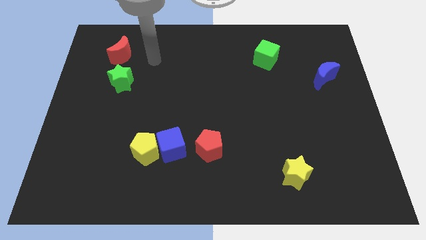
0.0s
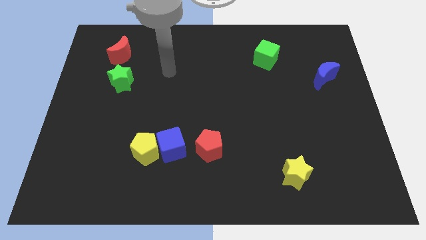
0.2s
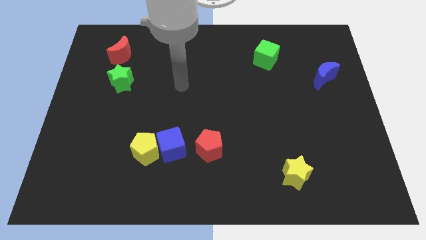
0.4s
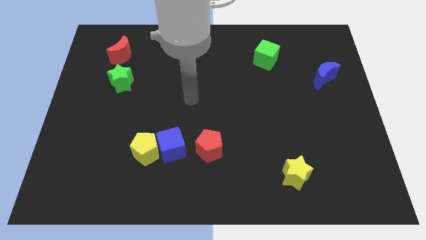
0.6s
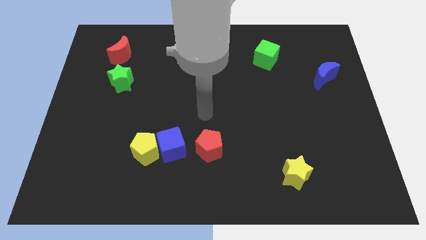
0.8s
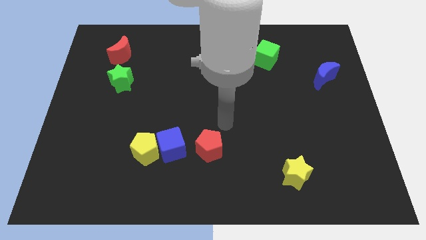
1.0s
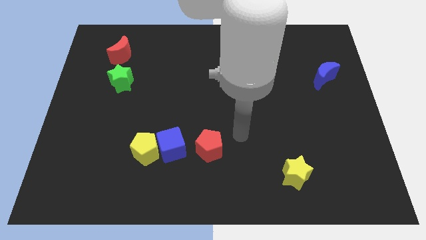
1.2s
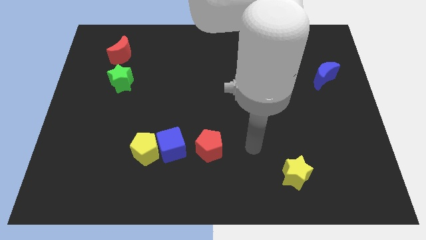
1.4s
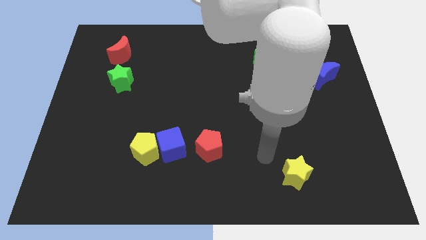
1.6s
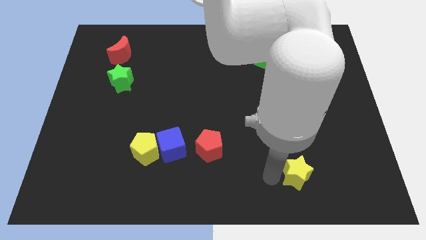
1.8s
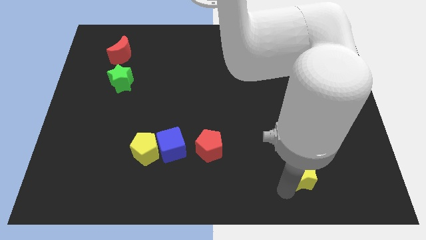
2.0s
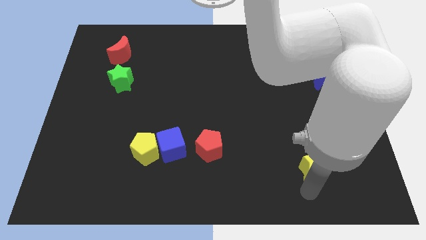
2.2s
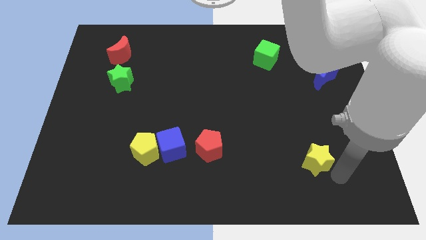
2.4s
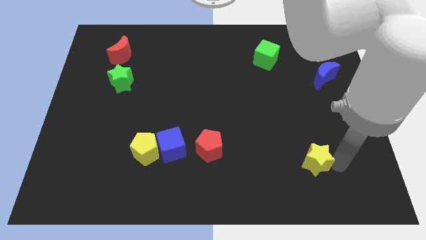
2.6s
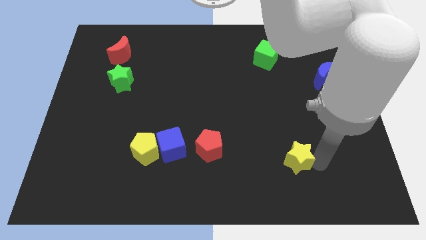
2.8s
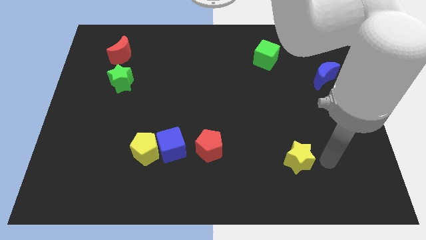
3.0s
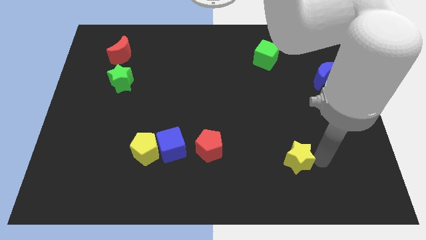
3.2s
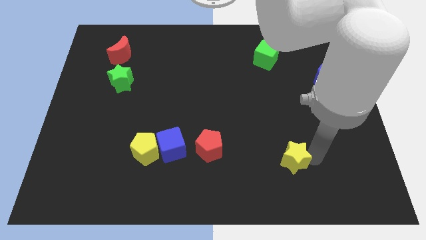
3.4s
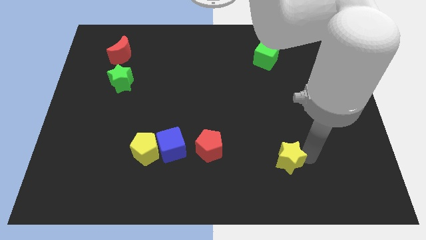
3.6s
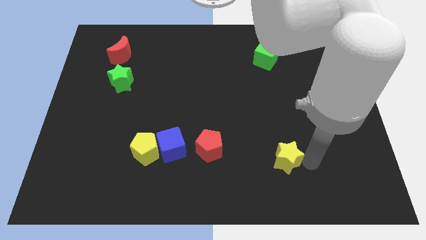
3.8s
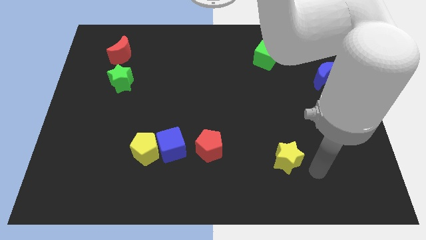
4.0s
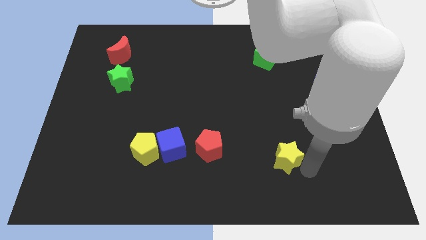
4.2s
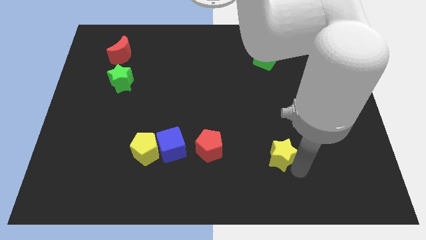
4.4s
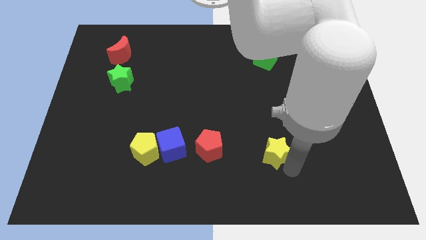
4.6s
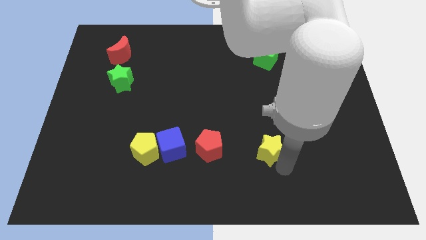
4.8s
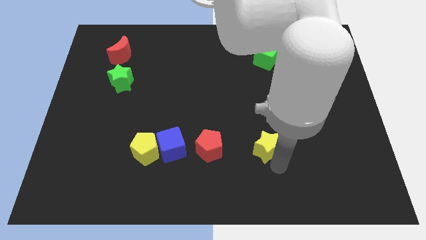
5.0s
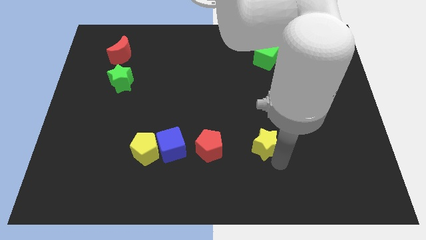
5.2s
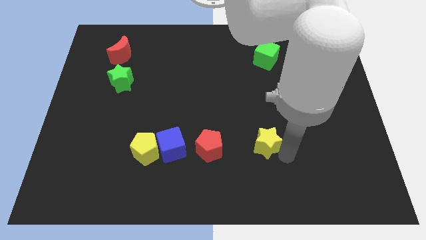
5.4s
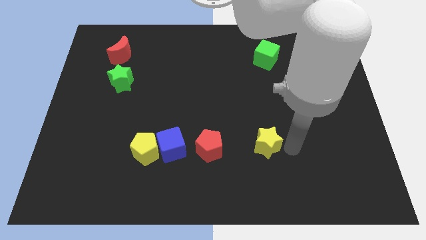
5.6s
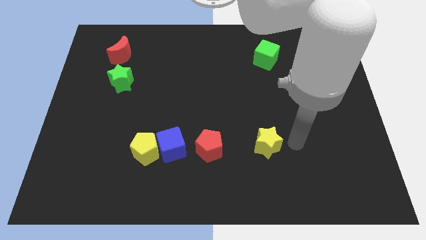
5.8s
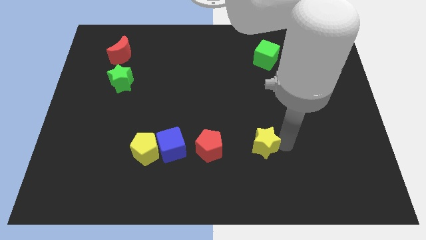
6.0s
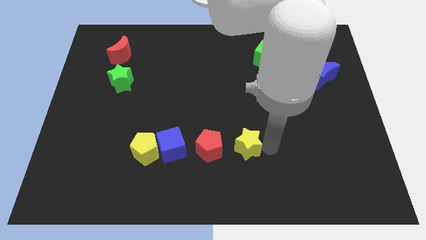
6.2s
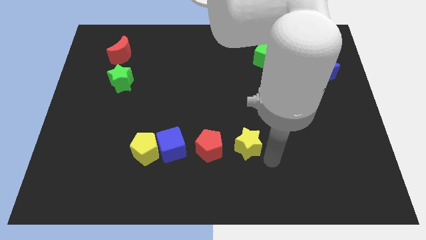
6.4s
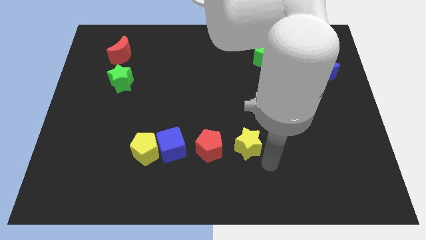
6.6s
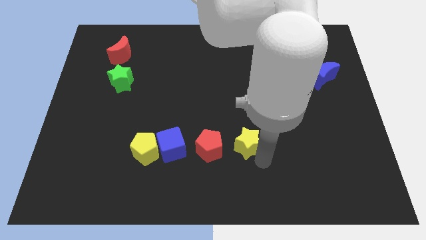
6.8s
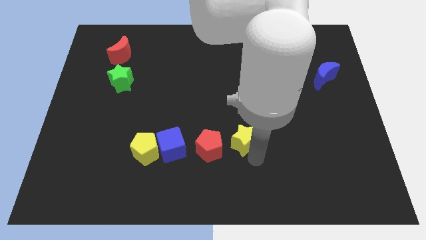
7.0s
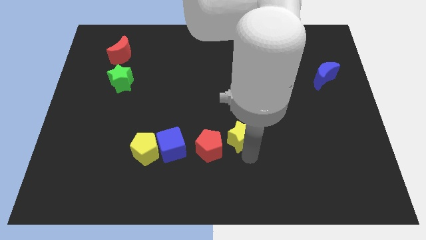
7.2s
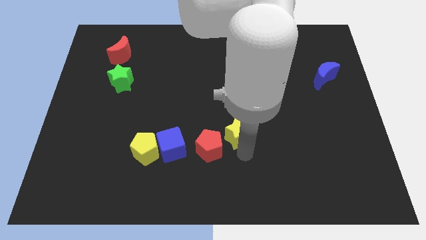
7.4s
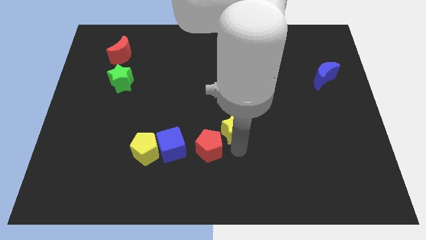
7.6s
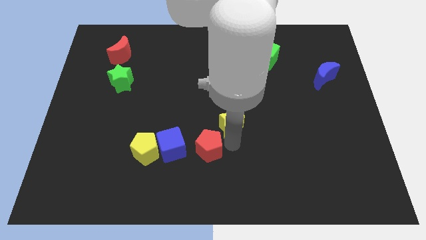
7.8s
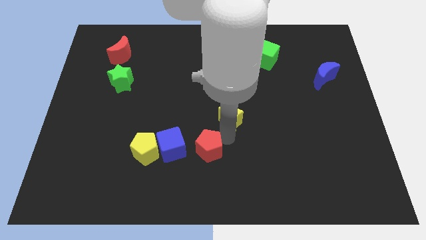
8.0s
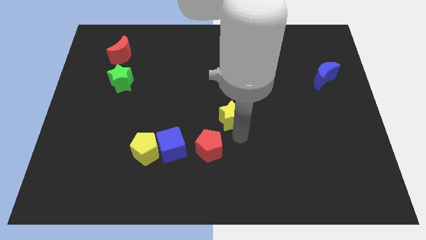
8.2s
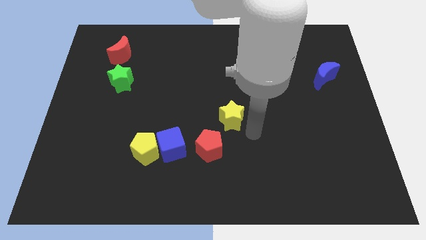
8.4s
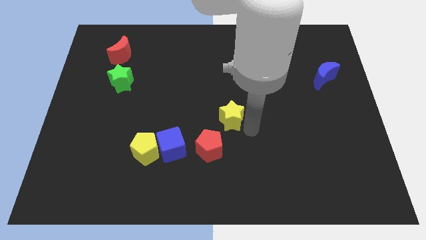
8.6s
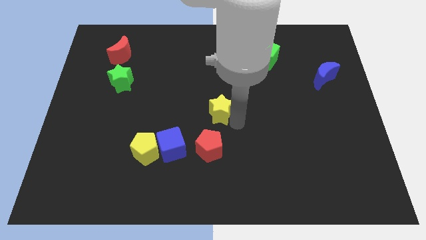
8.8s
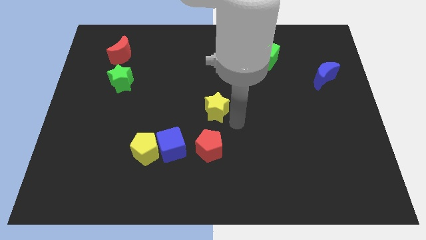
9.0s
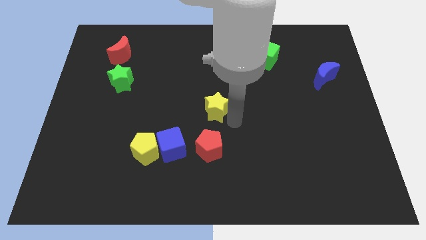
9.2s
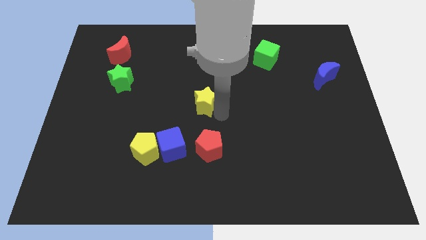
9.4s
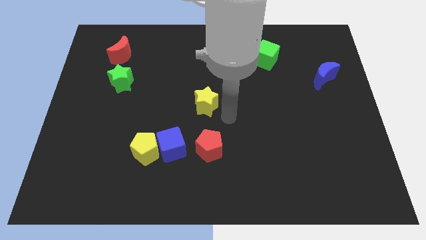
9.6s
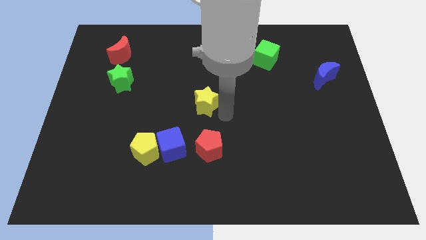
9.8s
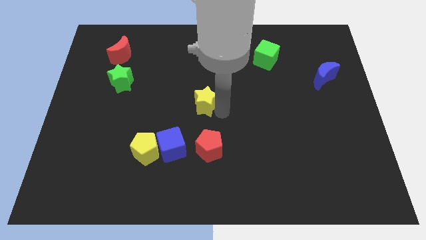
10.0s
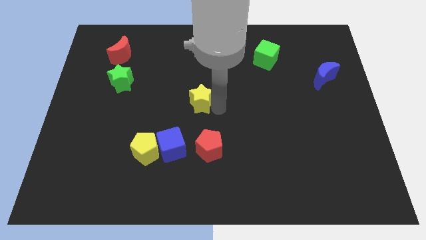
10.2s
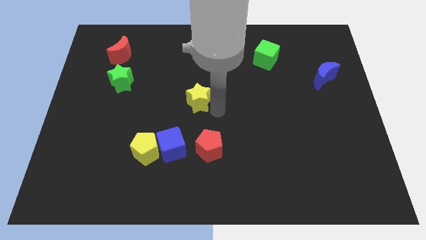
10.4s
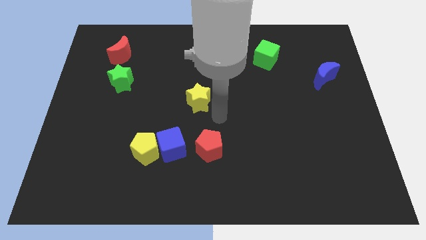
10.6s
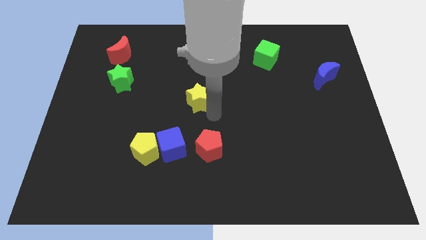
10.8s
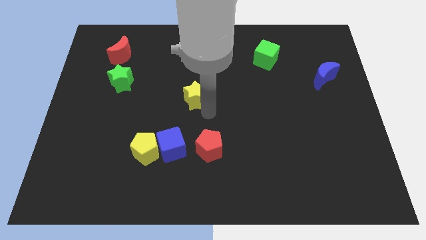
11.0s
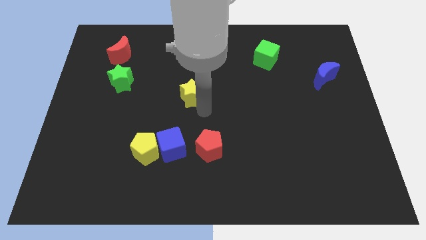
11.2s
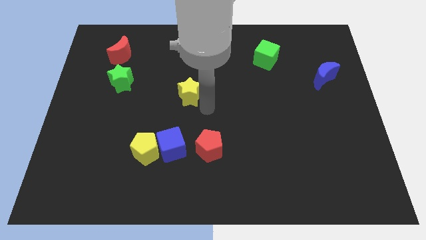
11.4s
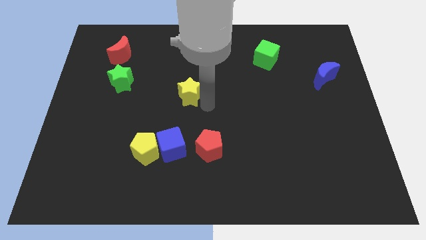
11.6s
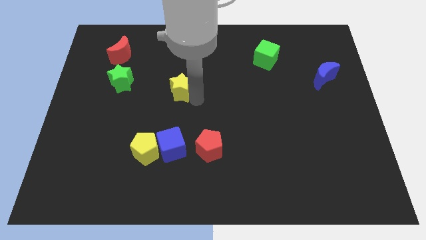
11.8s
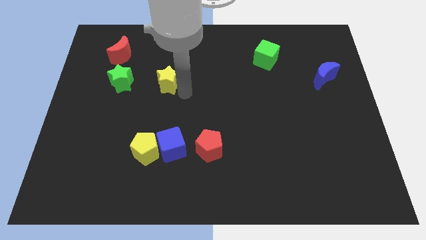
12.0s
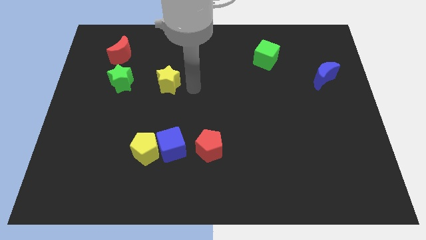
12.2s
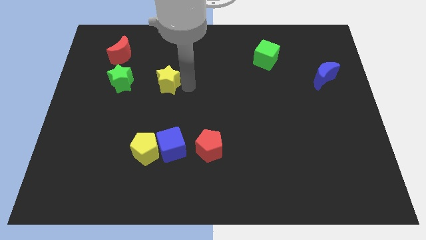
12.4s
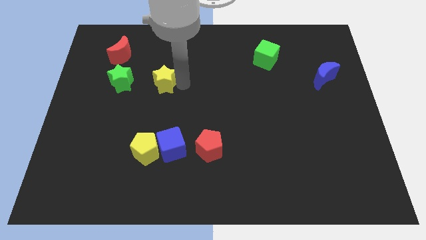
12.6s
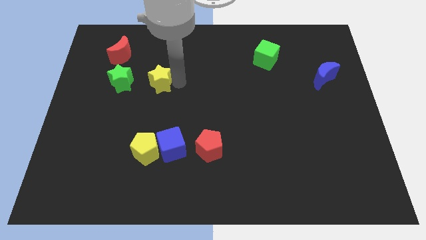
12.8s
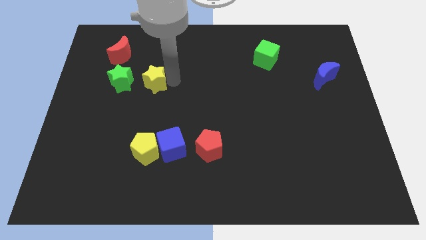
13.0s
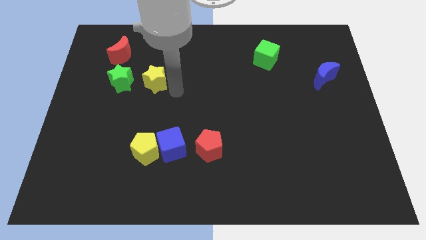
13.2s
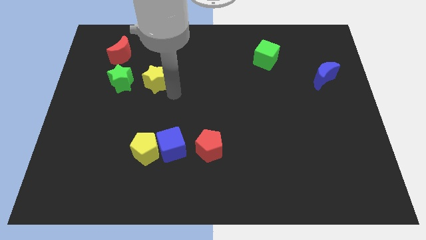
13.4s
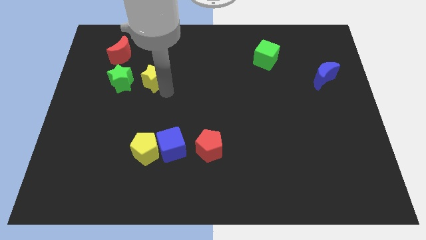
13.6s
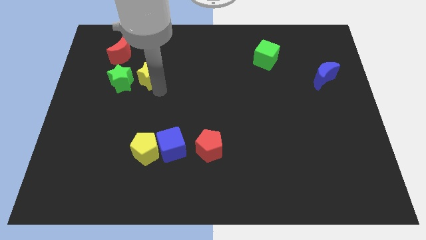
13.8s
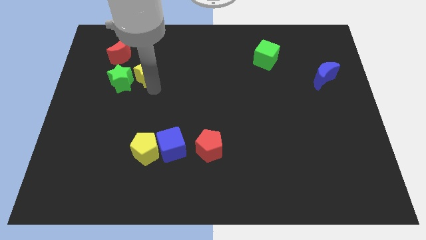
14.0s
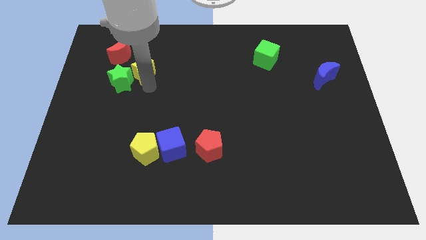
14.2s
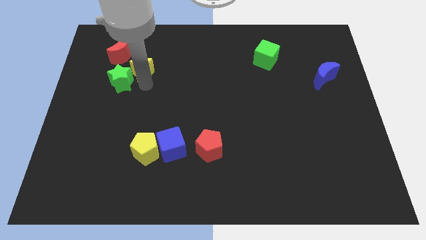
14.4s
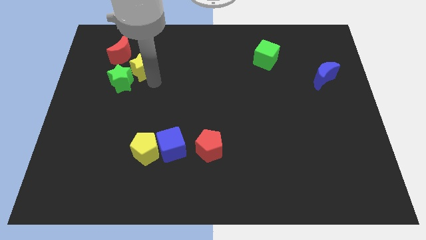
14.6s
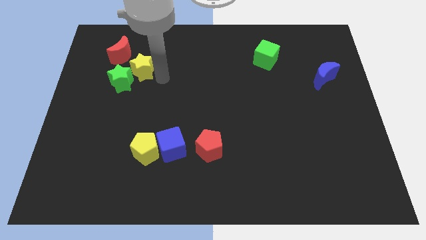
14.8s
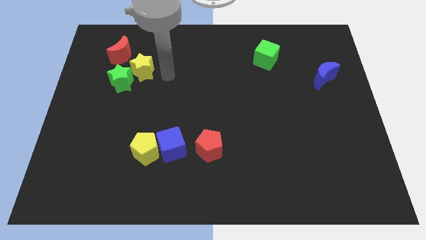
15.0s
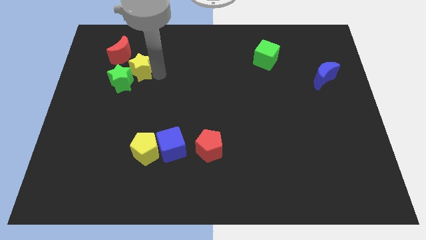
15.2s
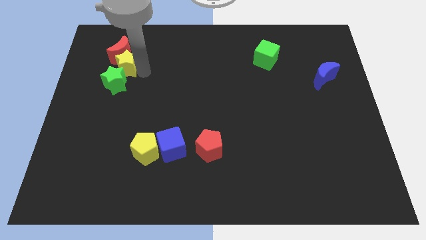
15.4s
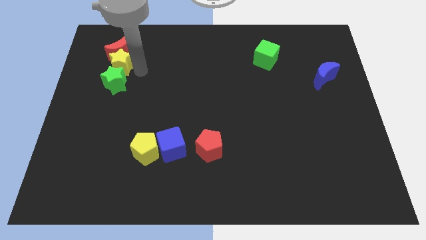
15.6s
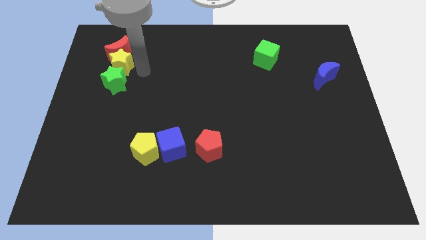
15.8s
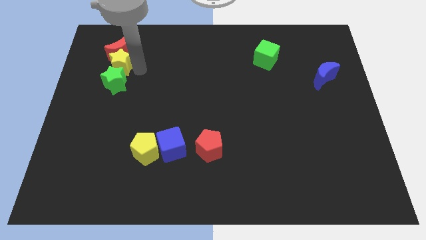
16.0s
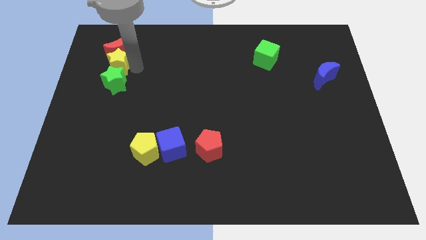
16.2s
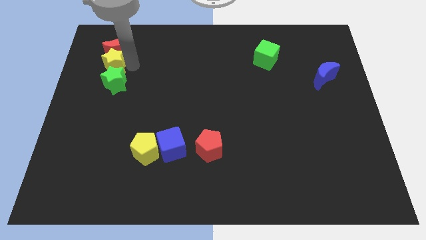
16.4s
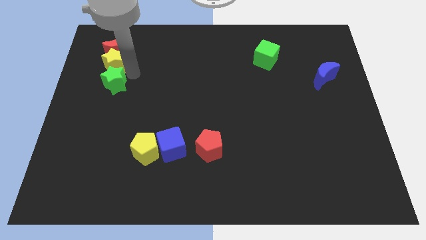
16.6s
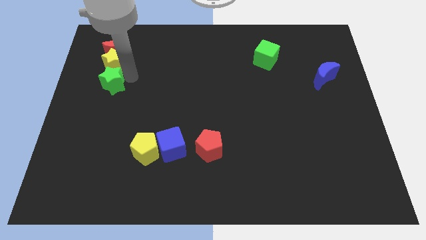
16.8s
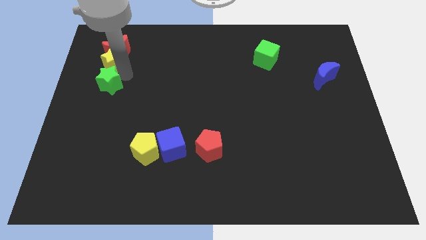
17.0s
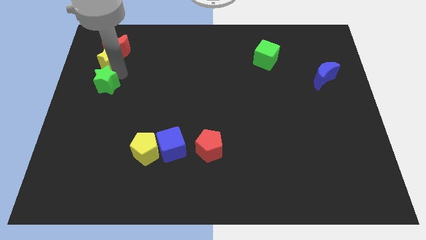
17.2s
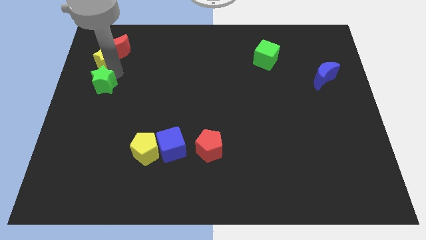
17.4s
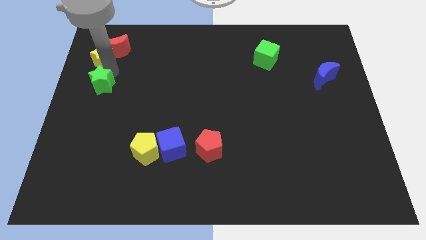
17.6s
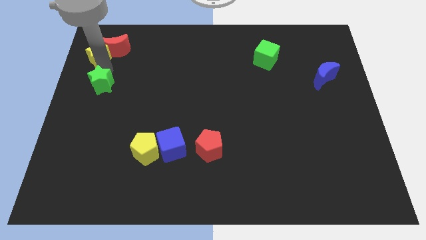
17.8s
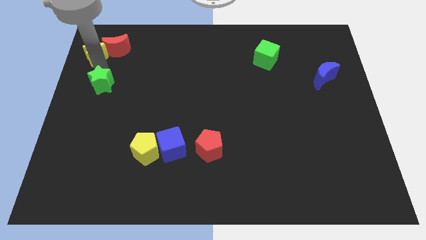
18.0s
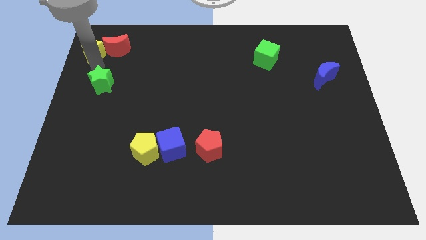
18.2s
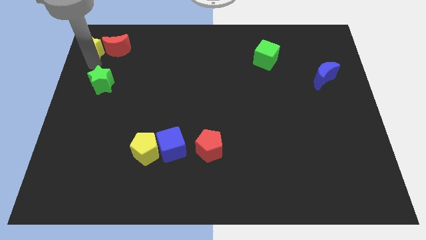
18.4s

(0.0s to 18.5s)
move the yellow star to the top left
